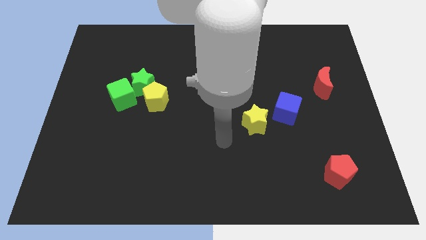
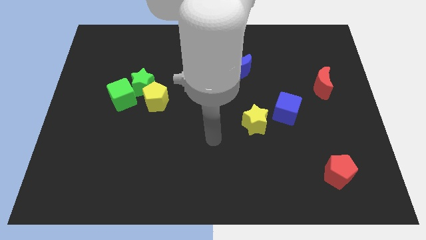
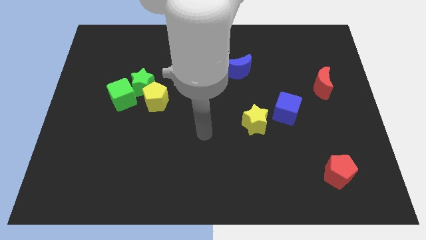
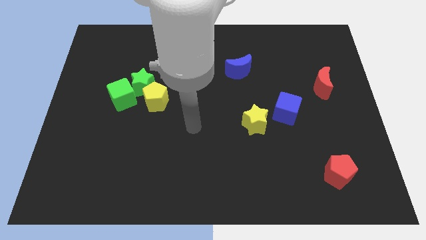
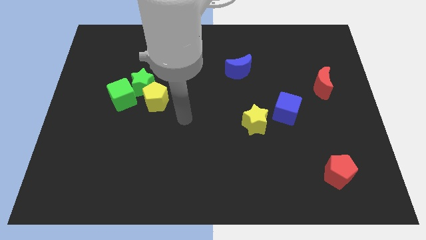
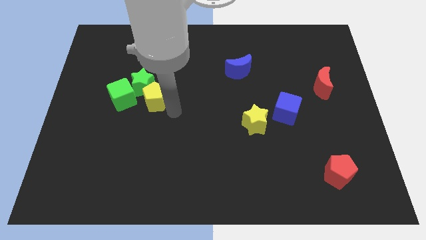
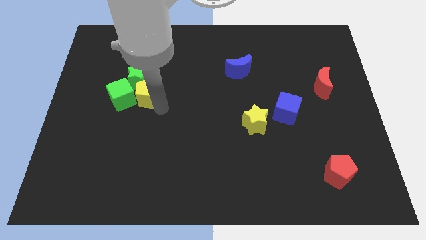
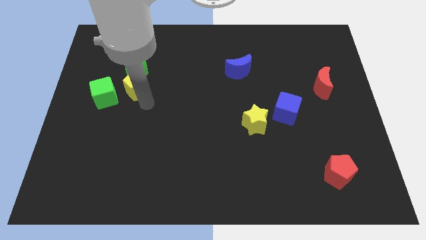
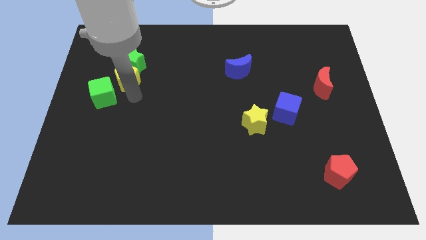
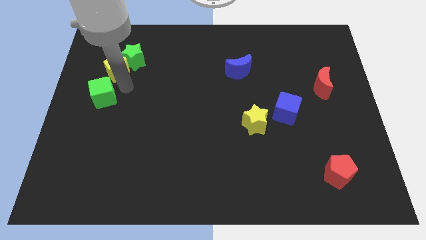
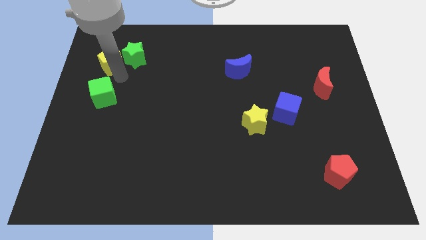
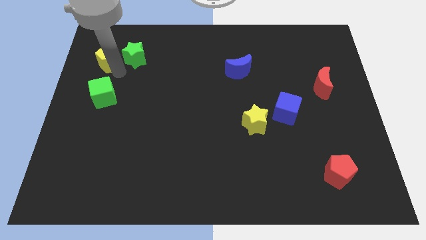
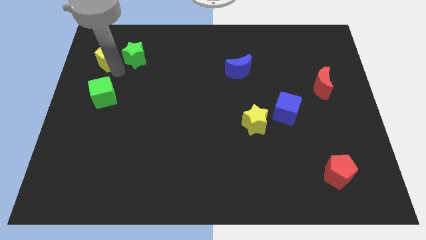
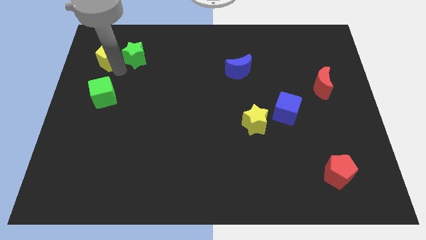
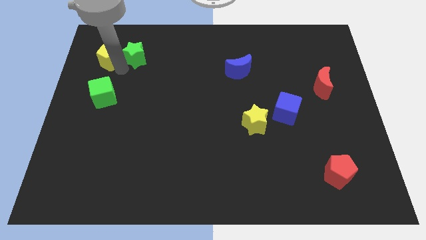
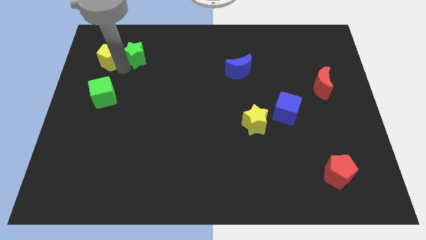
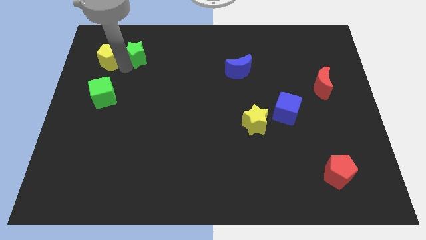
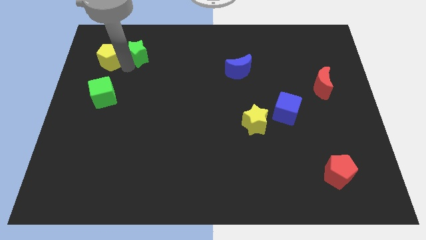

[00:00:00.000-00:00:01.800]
separate the green star from the green cube and yellow pentagon

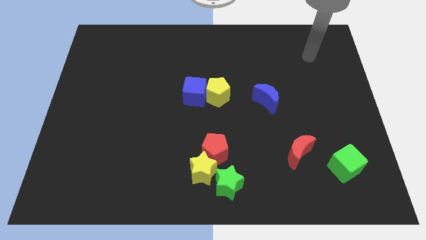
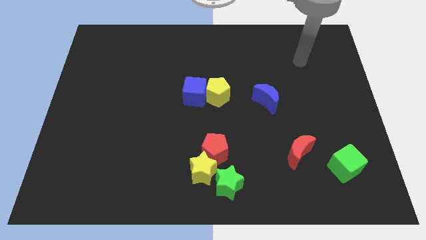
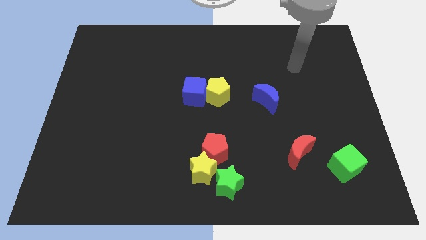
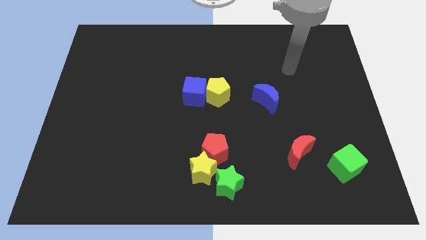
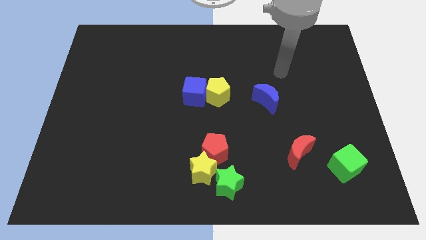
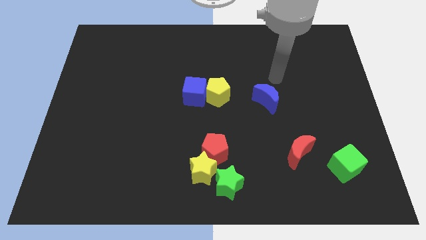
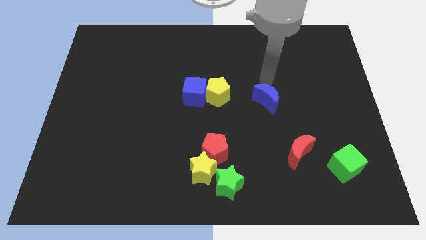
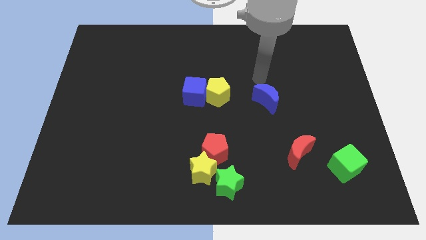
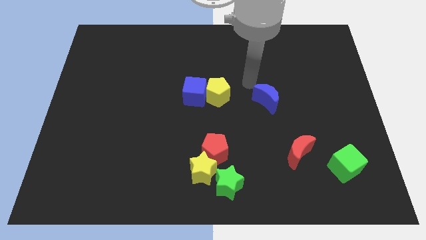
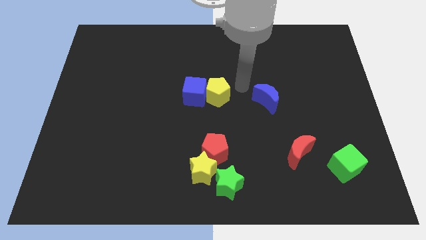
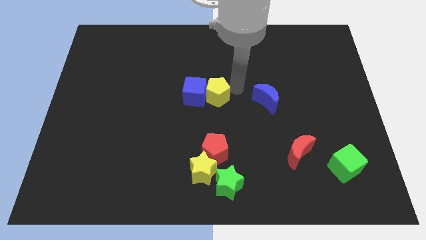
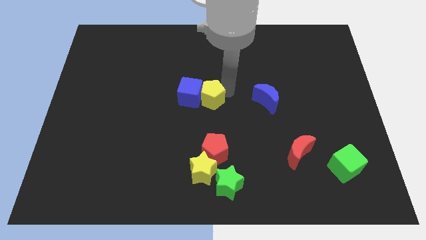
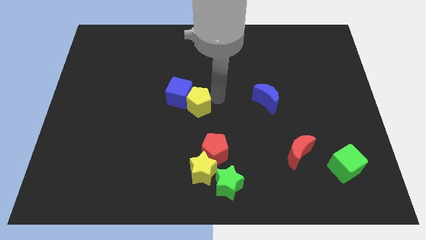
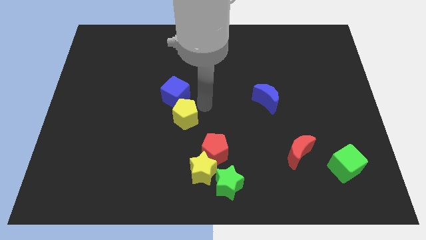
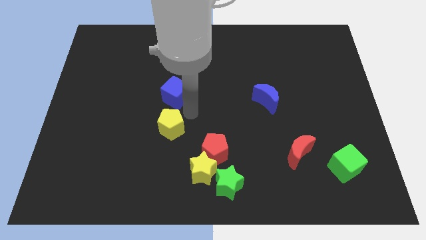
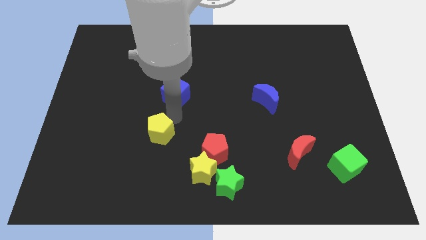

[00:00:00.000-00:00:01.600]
move the blue cube away from the yellow pentagon

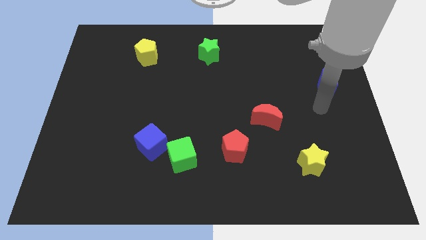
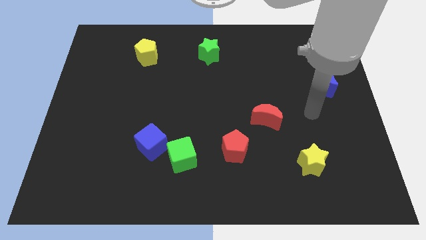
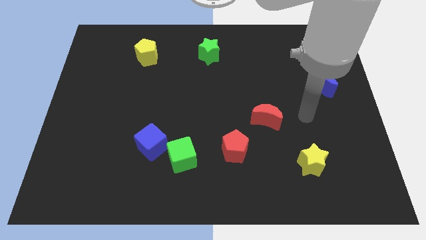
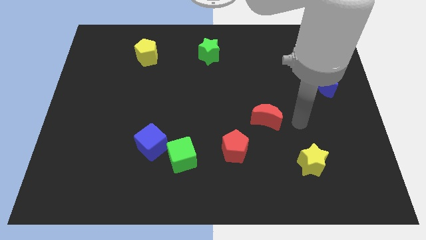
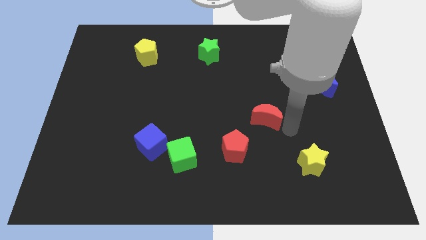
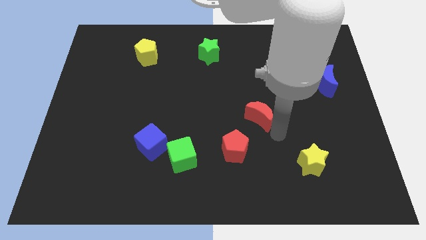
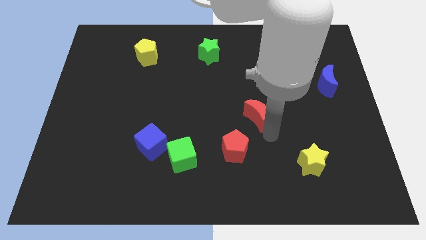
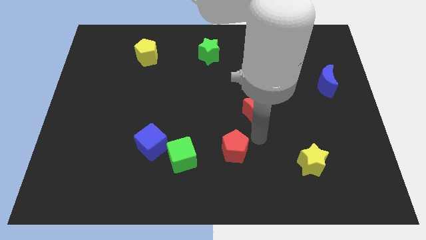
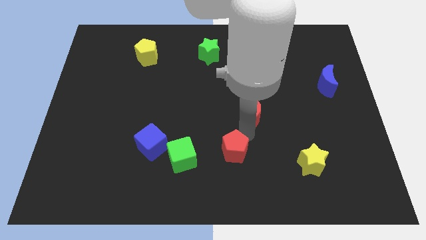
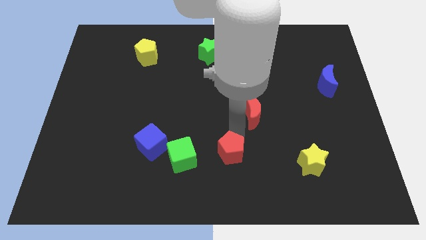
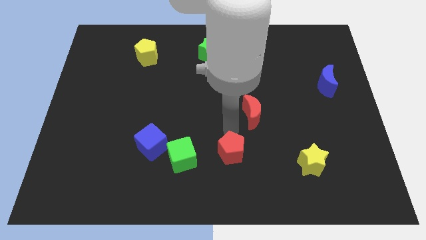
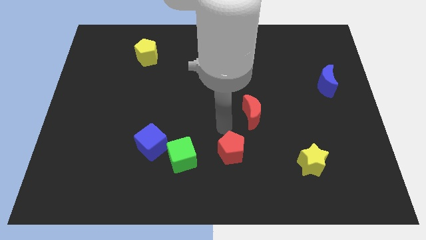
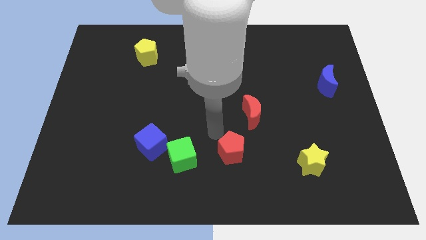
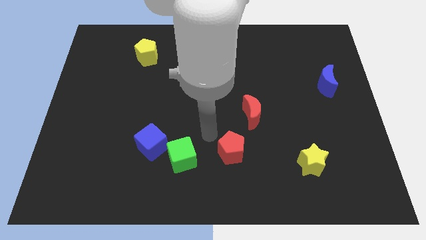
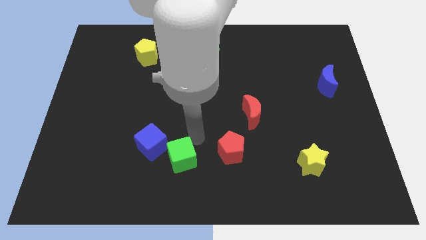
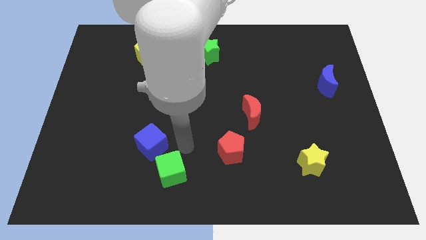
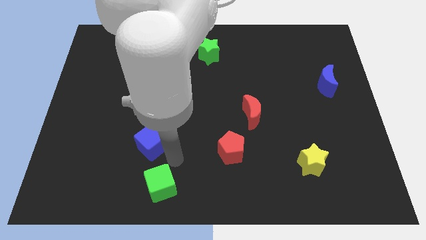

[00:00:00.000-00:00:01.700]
pull the blue cube apart from the green cube

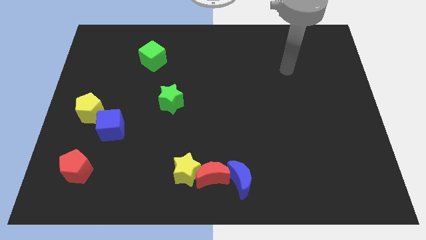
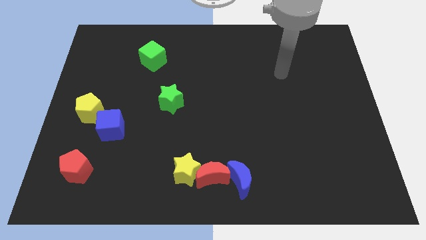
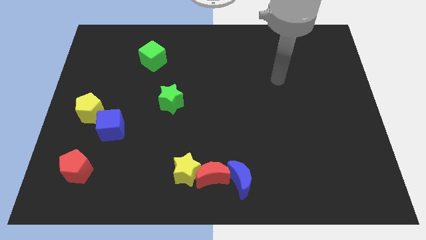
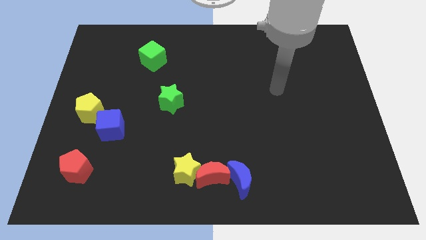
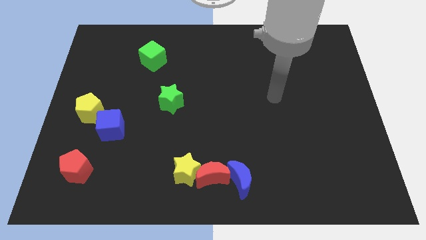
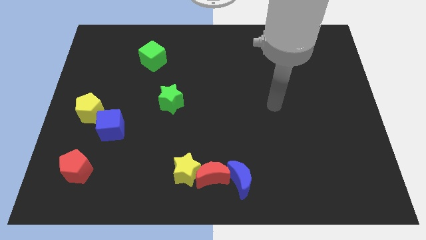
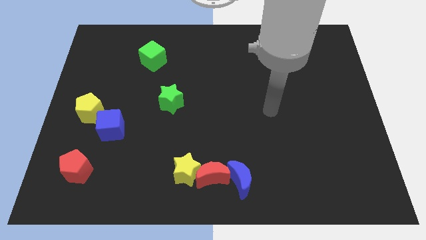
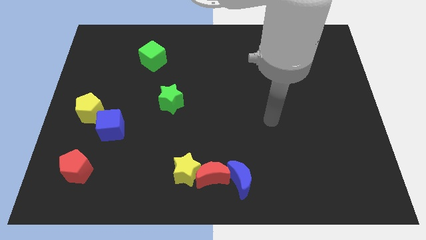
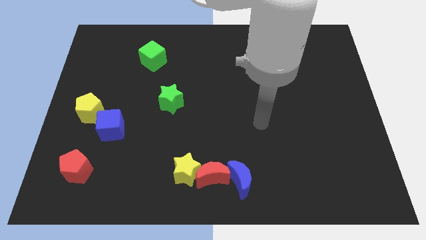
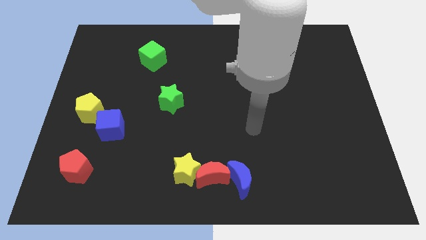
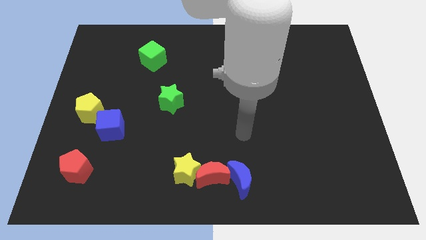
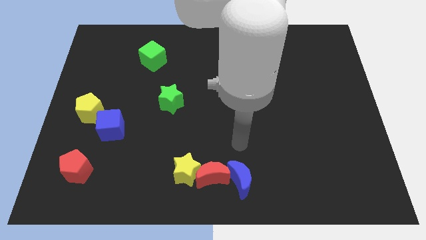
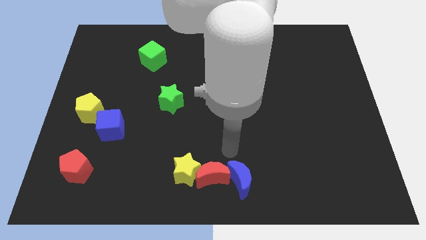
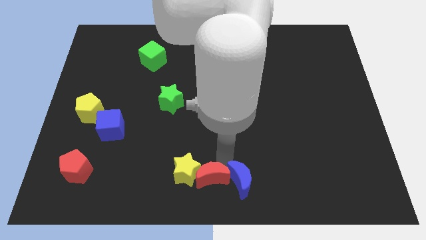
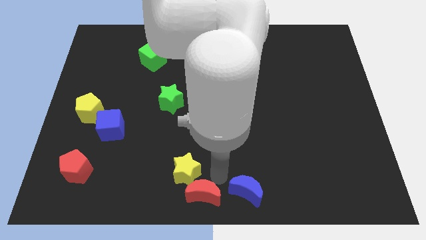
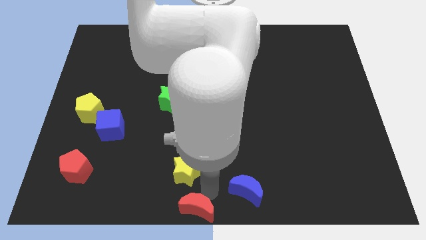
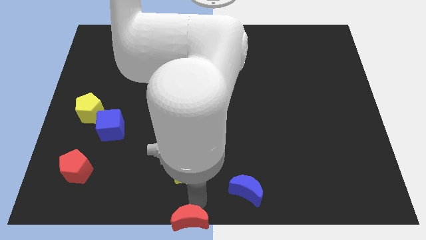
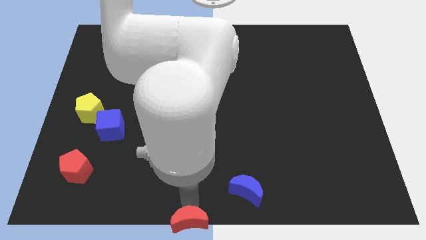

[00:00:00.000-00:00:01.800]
separate the yellow star from the red moon

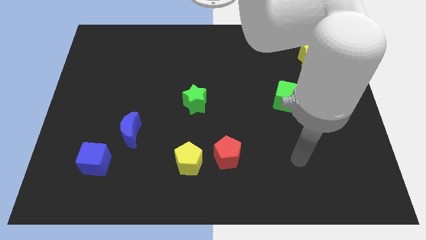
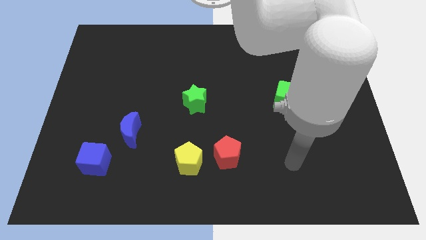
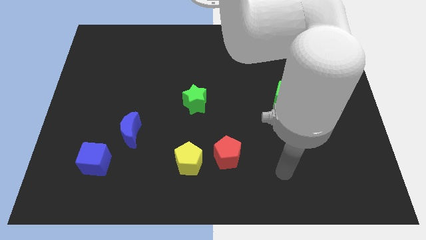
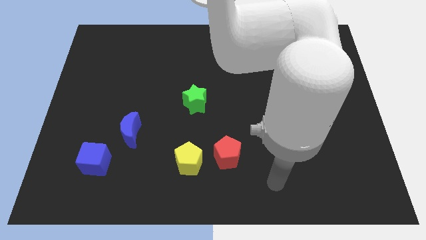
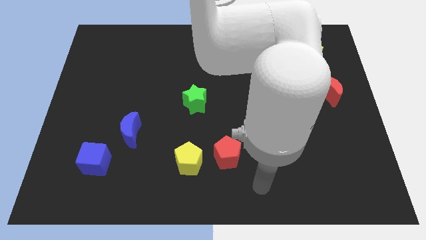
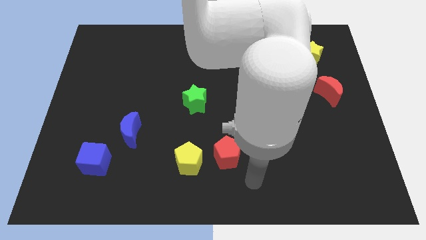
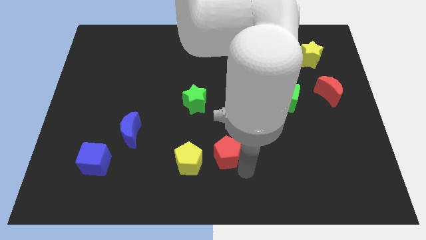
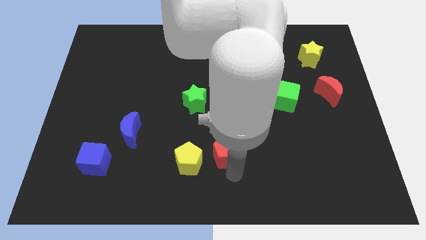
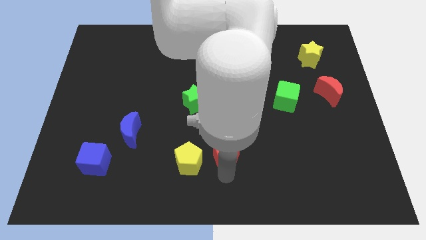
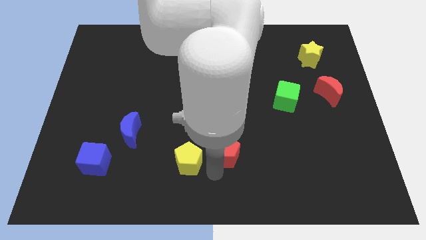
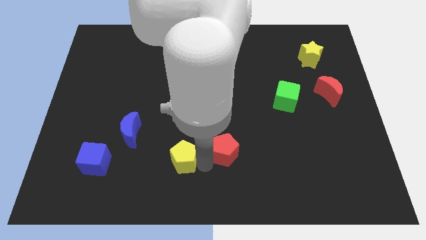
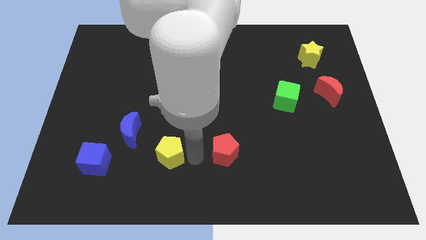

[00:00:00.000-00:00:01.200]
pull the red pentagon apart from the yellow pentagon

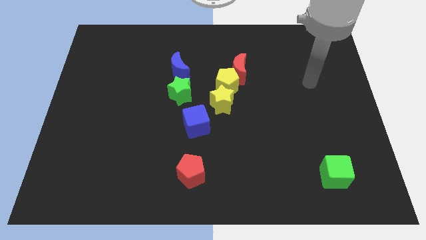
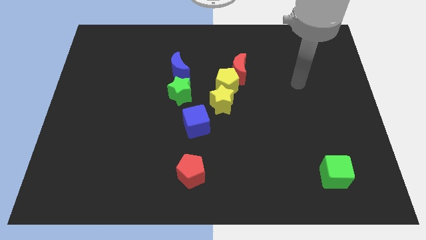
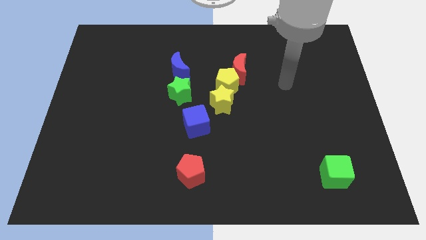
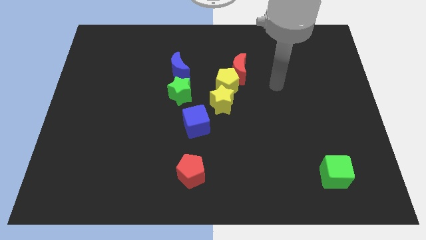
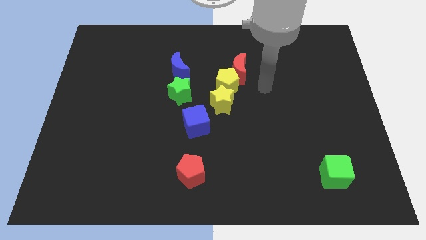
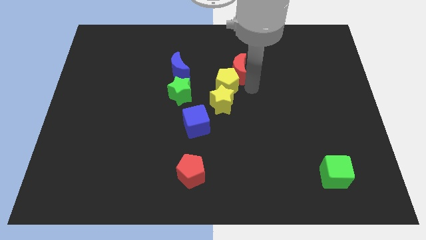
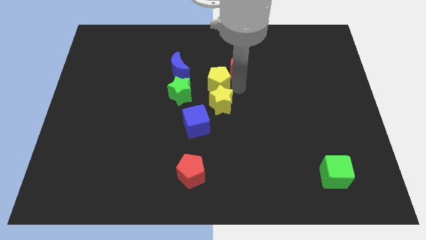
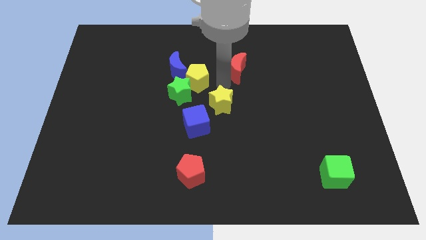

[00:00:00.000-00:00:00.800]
move the red moon away from the yellow pentagon

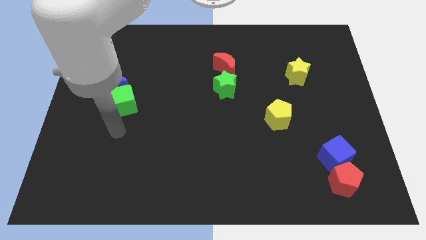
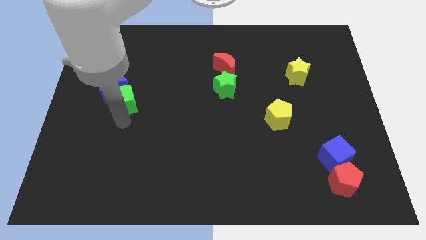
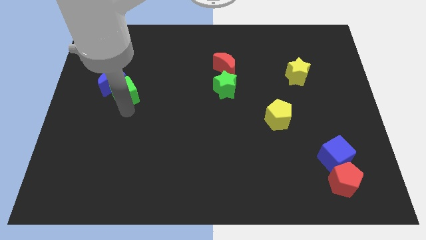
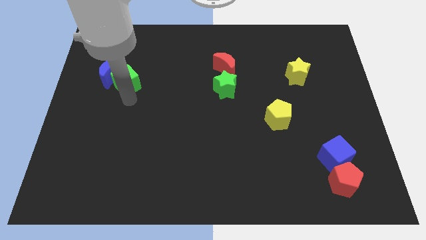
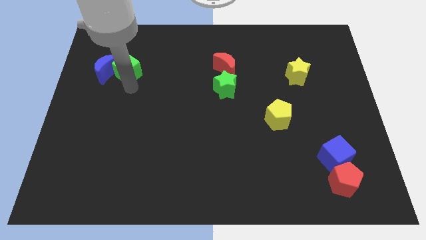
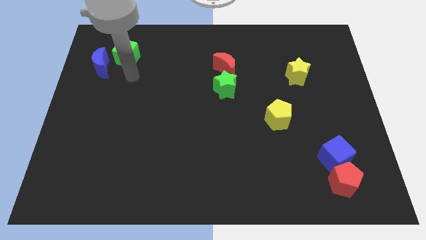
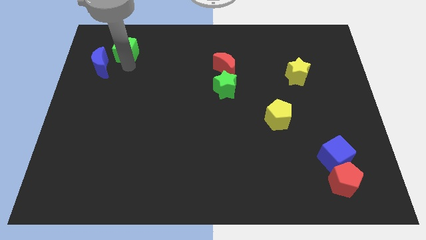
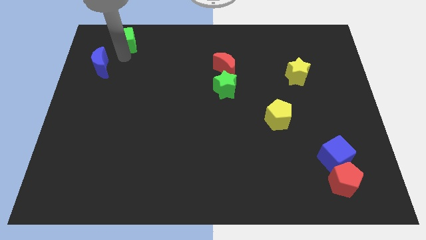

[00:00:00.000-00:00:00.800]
move the blue moon away from the green cube
